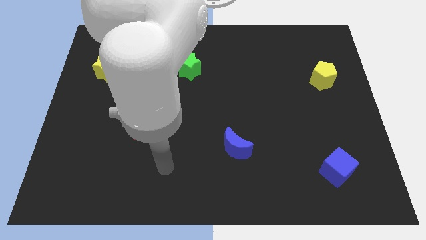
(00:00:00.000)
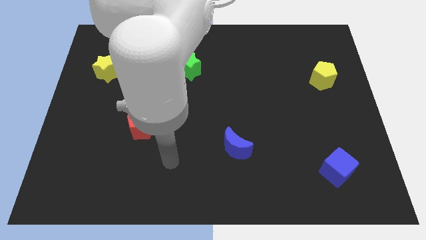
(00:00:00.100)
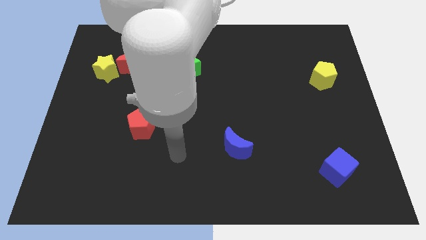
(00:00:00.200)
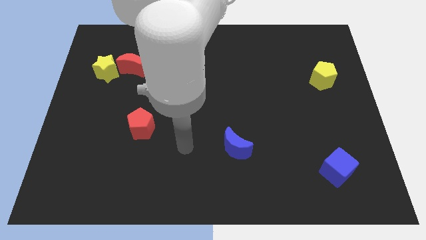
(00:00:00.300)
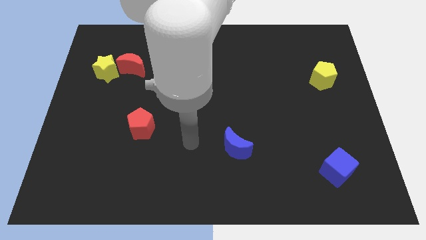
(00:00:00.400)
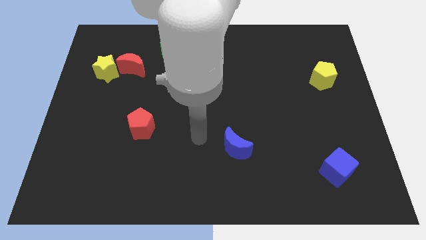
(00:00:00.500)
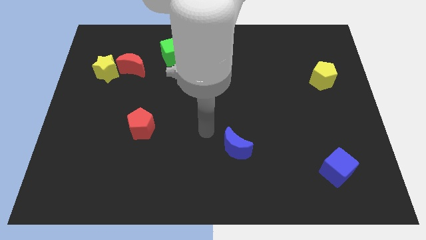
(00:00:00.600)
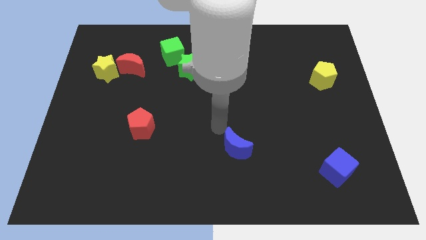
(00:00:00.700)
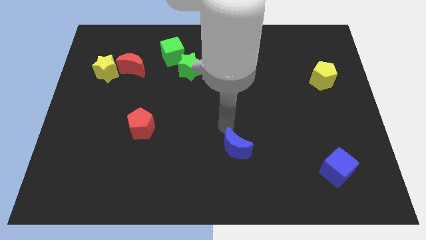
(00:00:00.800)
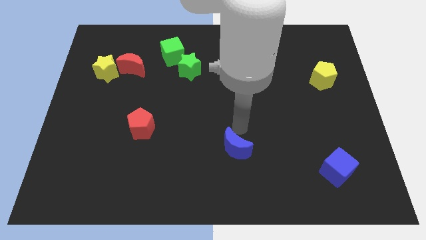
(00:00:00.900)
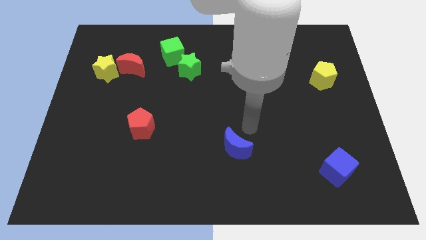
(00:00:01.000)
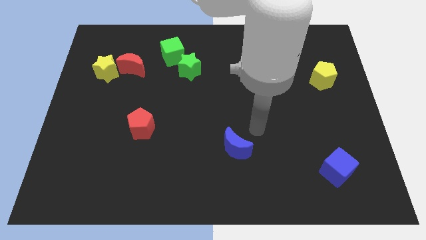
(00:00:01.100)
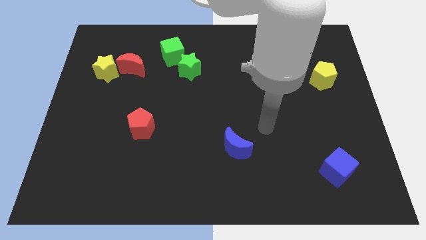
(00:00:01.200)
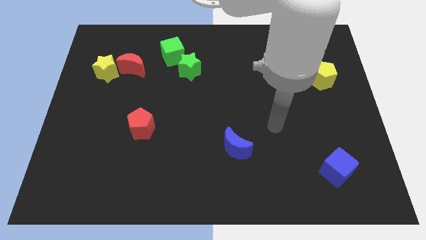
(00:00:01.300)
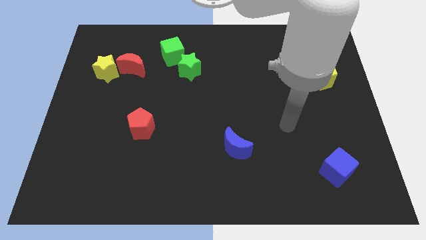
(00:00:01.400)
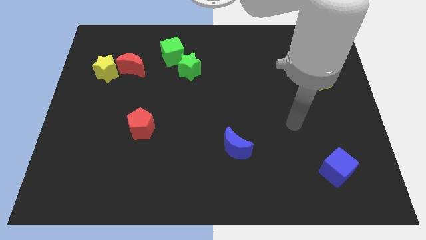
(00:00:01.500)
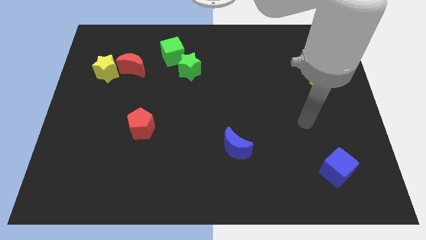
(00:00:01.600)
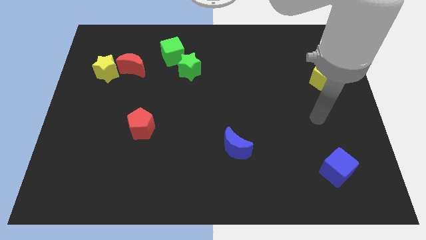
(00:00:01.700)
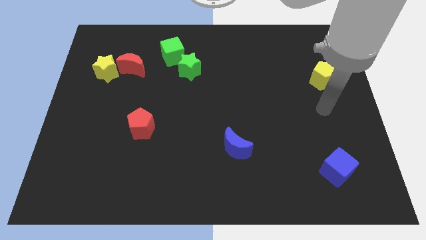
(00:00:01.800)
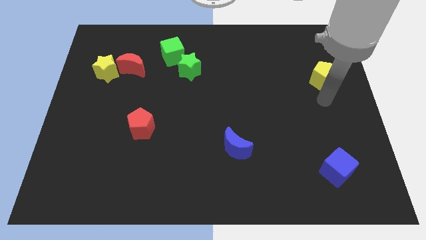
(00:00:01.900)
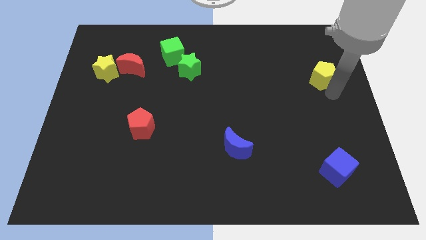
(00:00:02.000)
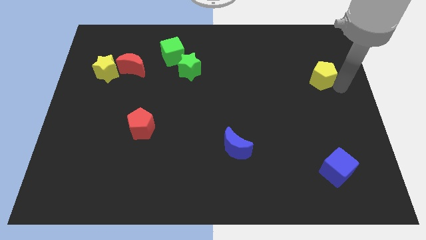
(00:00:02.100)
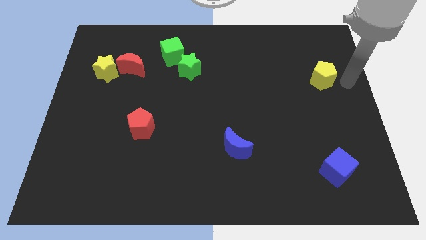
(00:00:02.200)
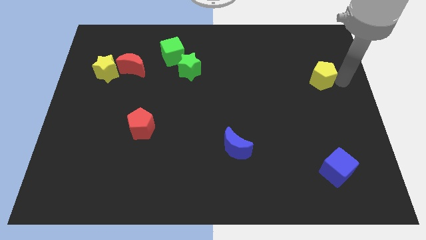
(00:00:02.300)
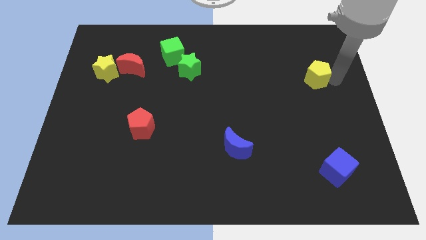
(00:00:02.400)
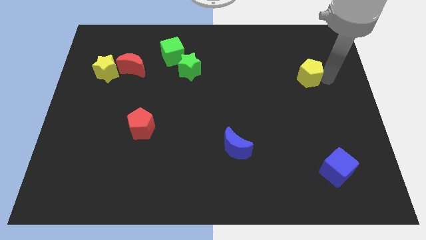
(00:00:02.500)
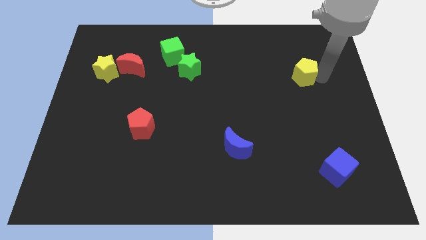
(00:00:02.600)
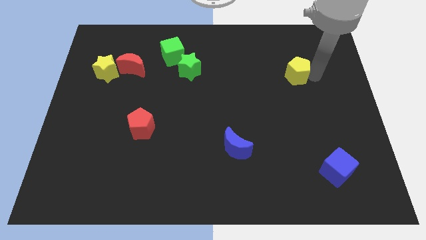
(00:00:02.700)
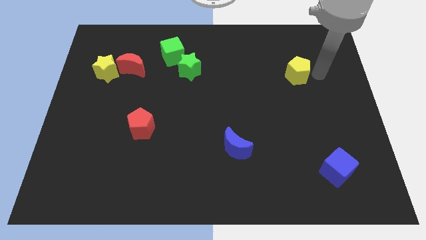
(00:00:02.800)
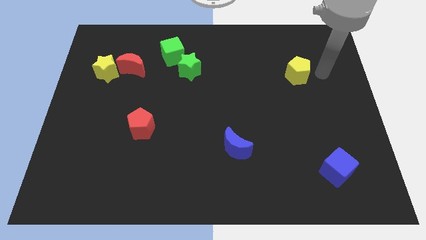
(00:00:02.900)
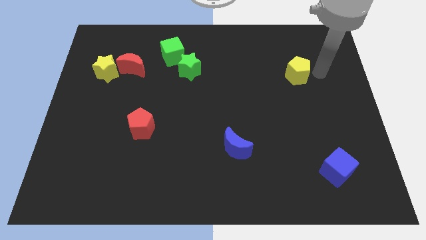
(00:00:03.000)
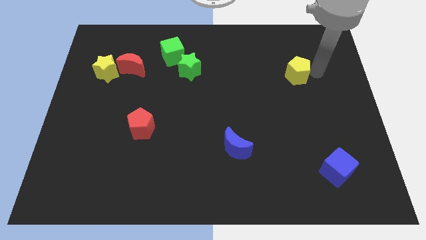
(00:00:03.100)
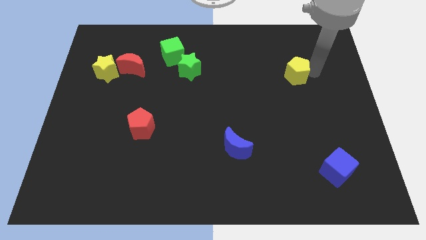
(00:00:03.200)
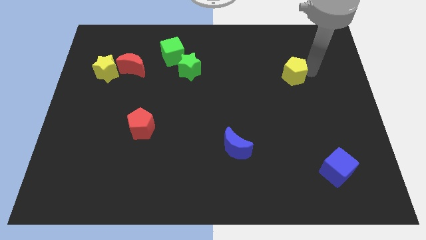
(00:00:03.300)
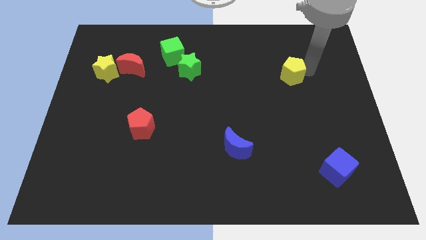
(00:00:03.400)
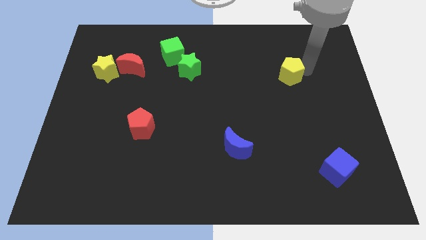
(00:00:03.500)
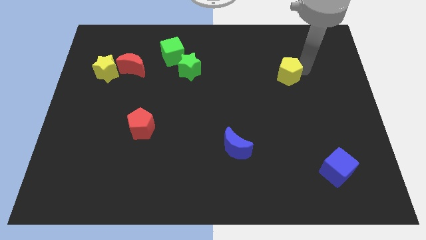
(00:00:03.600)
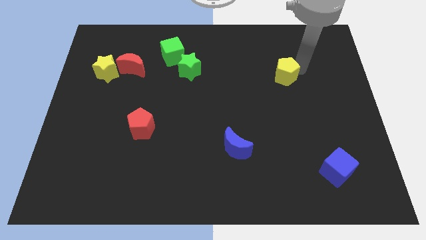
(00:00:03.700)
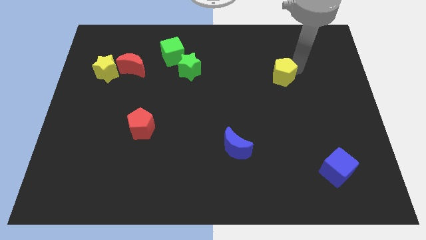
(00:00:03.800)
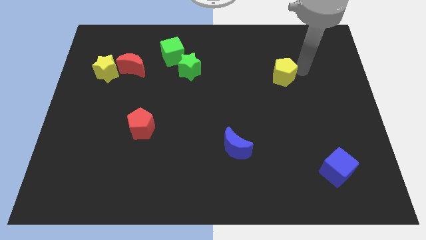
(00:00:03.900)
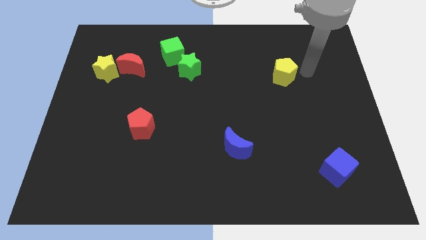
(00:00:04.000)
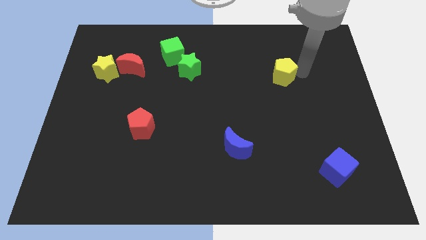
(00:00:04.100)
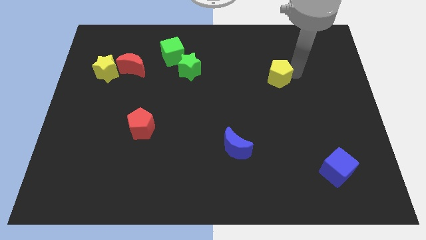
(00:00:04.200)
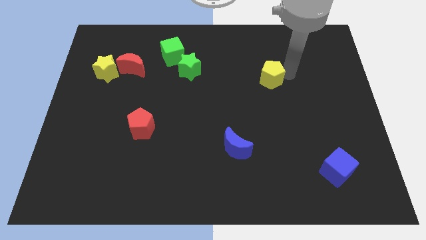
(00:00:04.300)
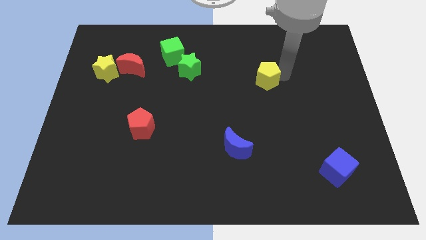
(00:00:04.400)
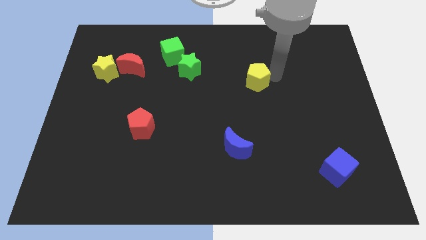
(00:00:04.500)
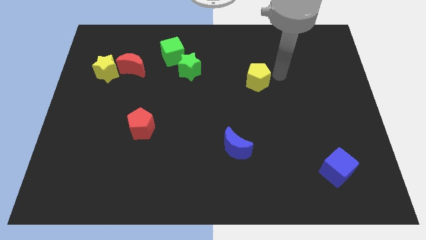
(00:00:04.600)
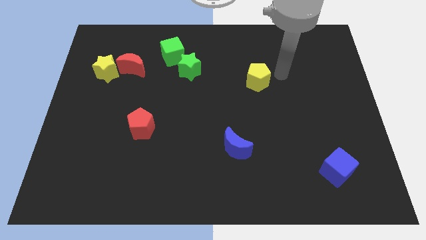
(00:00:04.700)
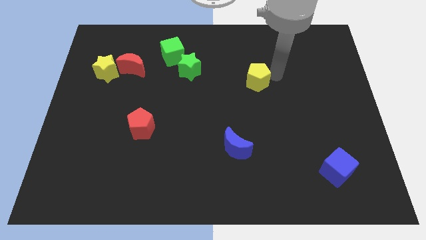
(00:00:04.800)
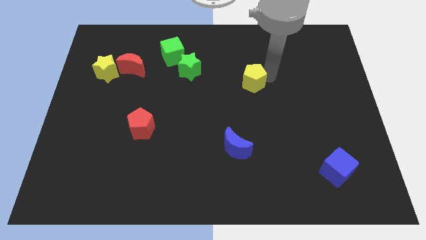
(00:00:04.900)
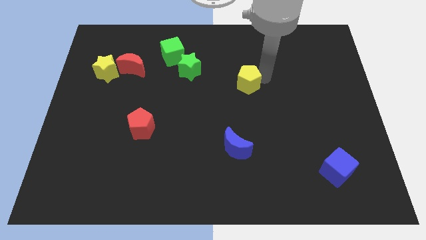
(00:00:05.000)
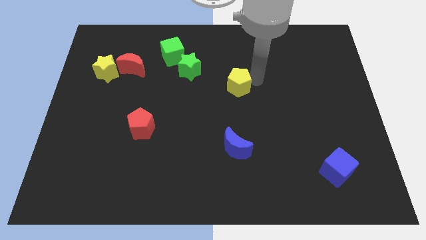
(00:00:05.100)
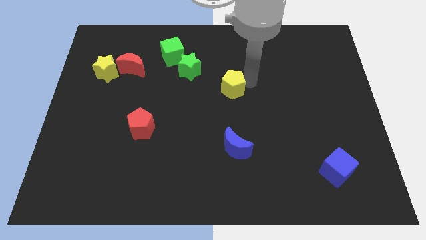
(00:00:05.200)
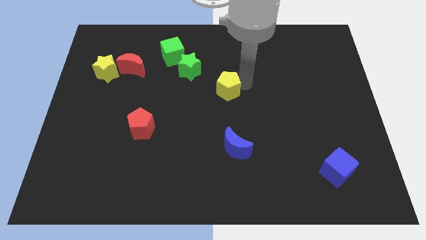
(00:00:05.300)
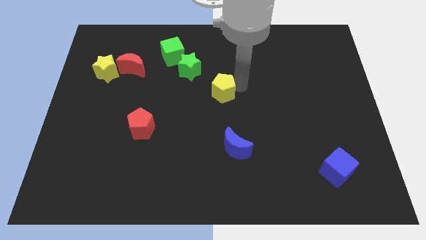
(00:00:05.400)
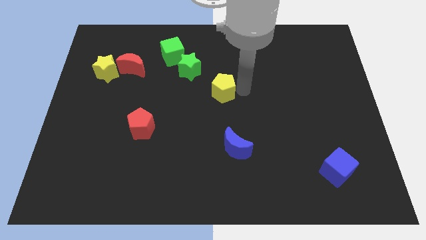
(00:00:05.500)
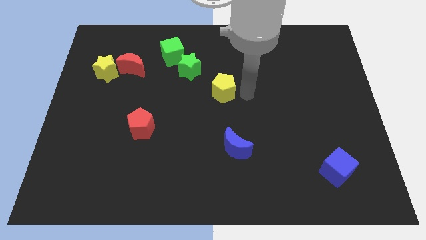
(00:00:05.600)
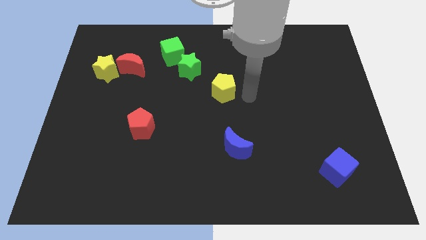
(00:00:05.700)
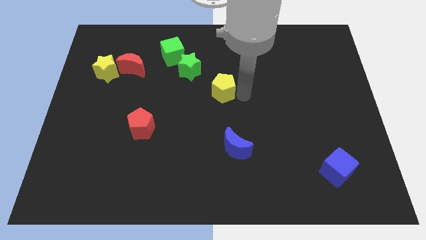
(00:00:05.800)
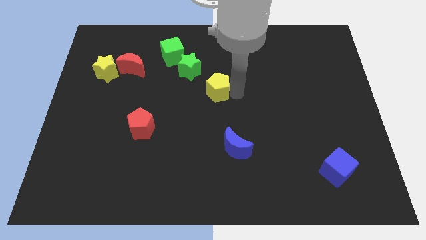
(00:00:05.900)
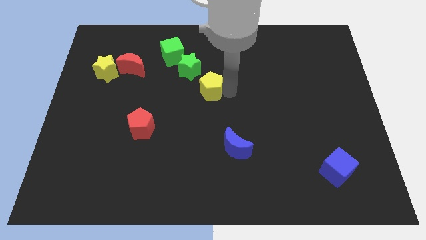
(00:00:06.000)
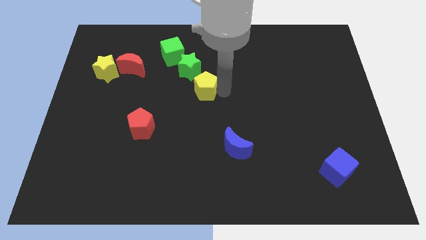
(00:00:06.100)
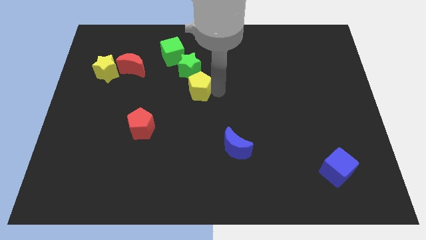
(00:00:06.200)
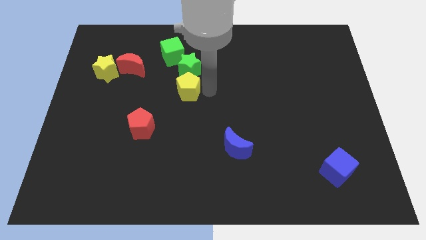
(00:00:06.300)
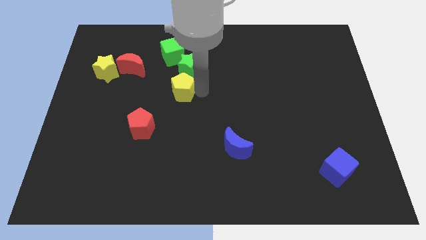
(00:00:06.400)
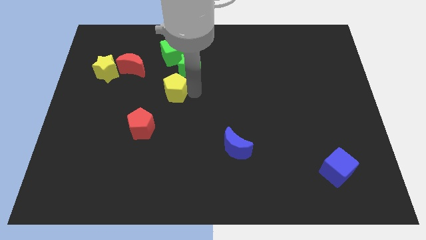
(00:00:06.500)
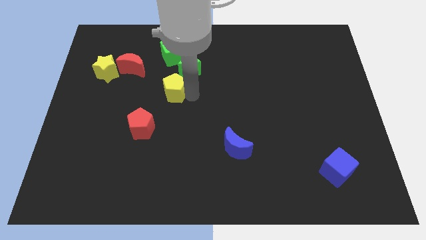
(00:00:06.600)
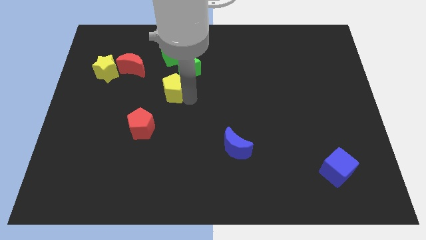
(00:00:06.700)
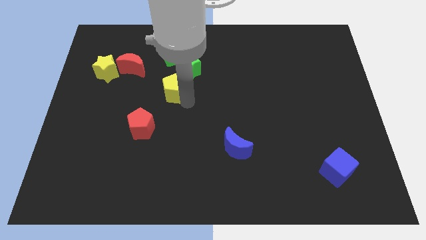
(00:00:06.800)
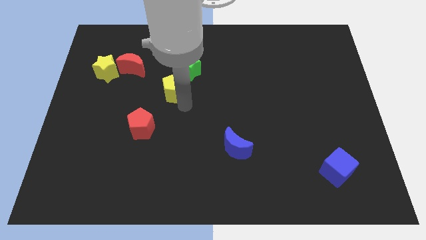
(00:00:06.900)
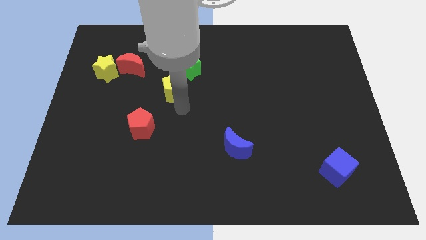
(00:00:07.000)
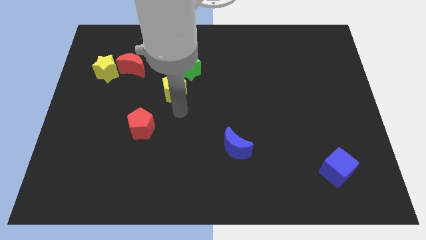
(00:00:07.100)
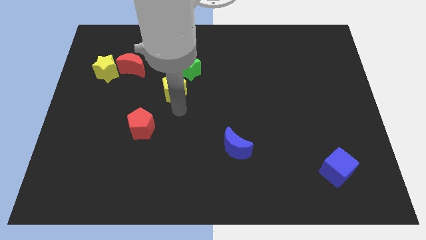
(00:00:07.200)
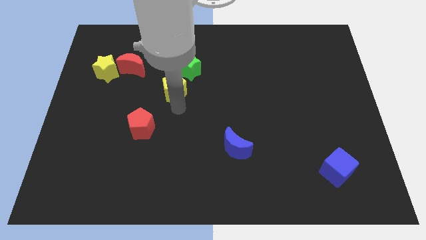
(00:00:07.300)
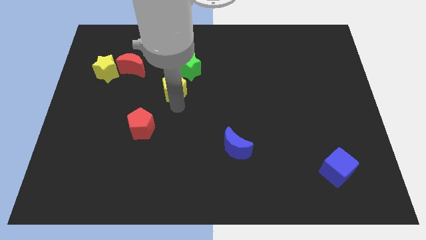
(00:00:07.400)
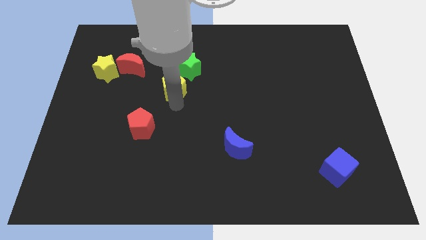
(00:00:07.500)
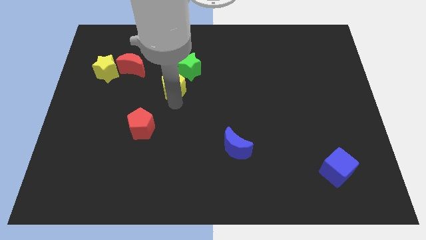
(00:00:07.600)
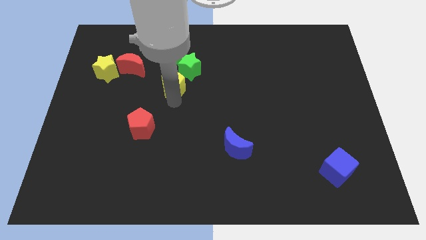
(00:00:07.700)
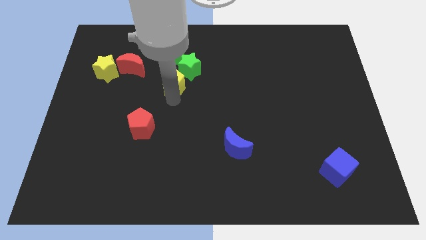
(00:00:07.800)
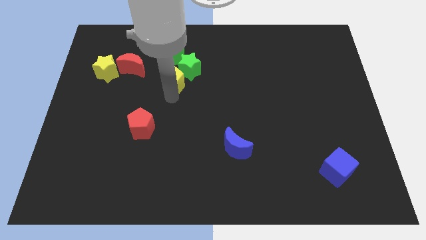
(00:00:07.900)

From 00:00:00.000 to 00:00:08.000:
slide the yellow pentagon left of the green star
